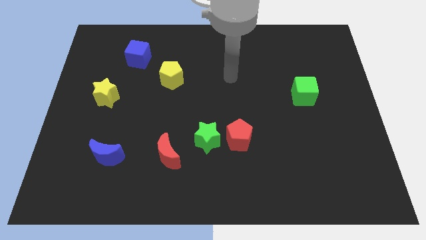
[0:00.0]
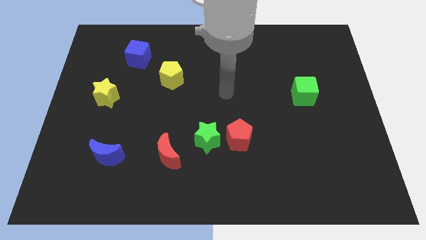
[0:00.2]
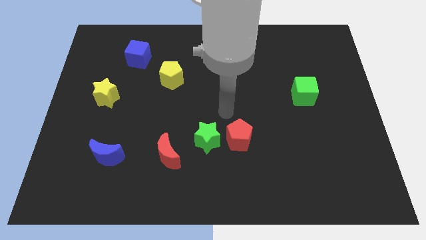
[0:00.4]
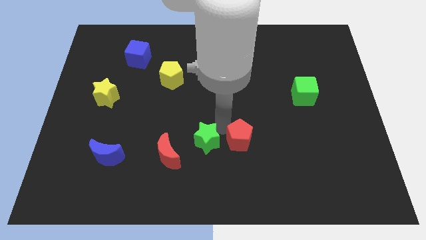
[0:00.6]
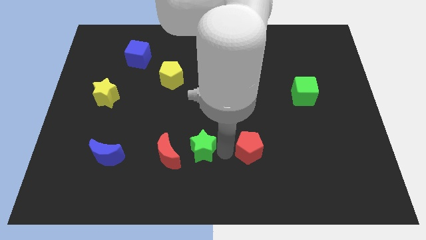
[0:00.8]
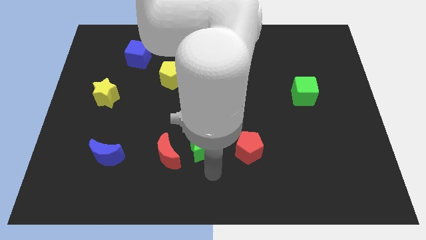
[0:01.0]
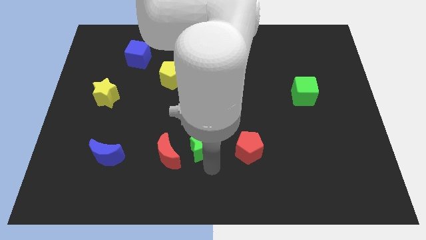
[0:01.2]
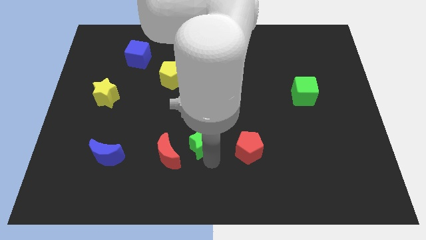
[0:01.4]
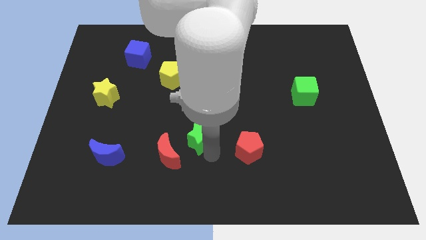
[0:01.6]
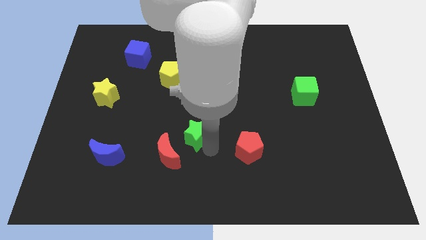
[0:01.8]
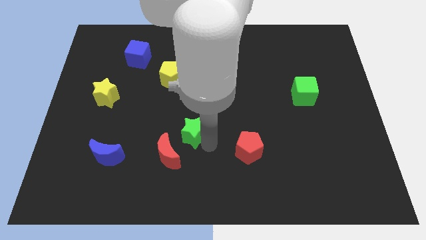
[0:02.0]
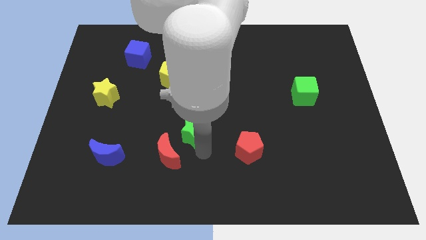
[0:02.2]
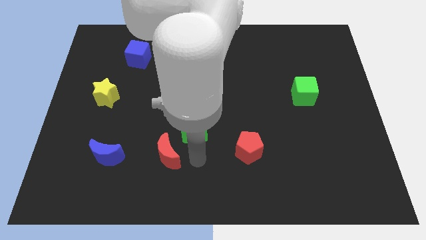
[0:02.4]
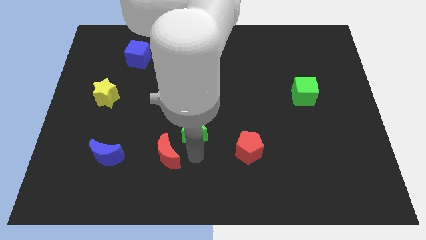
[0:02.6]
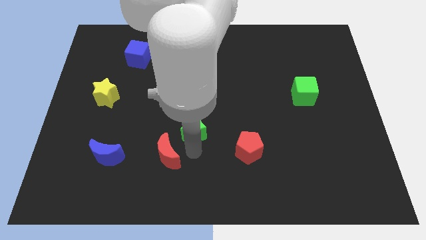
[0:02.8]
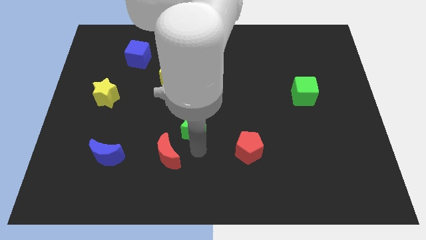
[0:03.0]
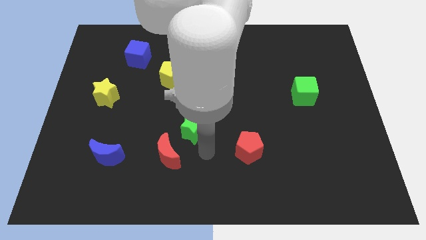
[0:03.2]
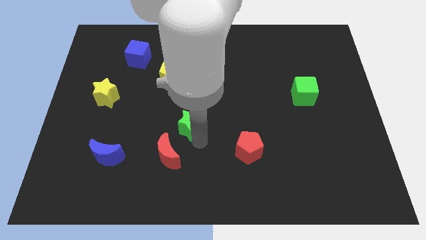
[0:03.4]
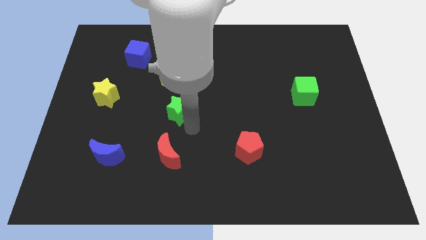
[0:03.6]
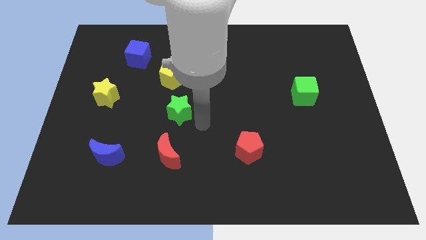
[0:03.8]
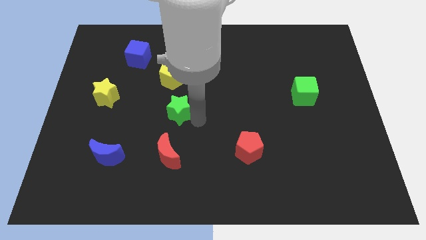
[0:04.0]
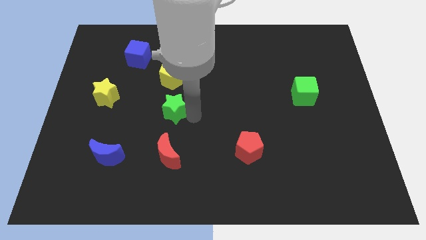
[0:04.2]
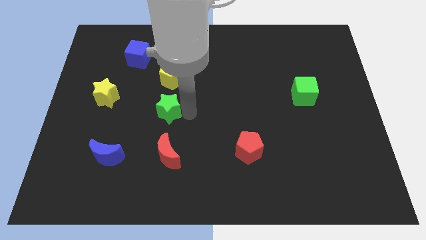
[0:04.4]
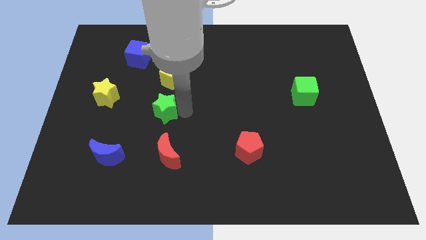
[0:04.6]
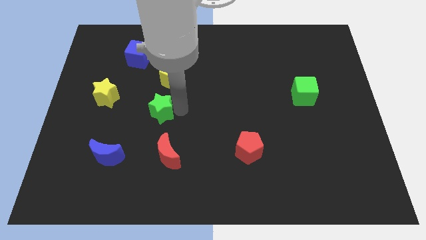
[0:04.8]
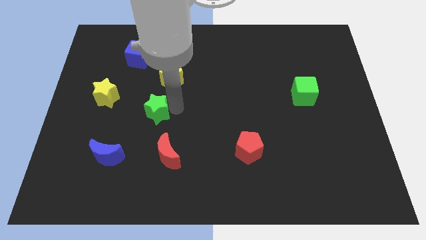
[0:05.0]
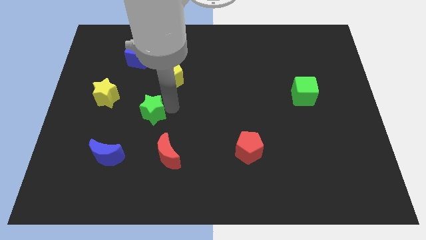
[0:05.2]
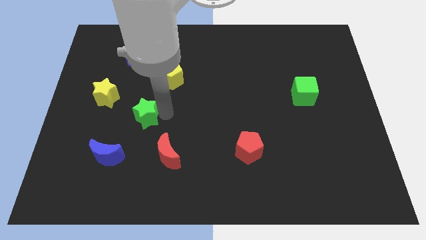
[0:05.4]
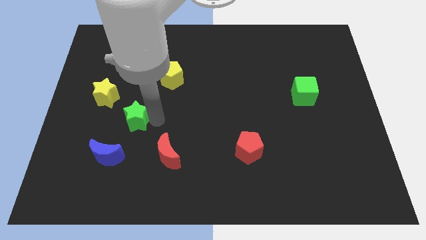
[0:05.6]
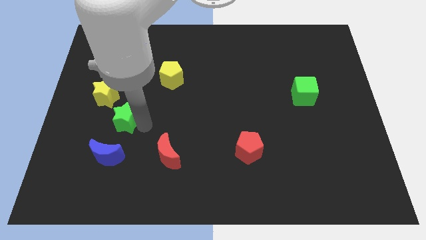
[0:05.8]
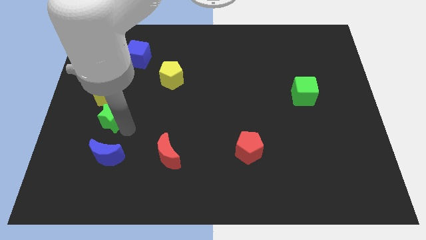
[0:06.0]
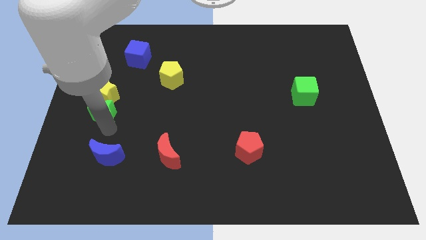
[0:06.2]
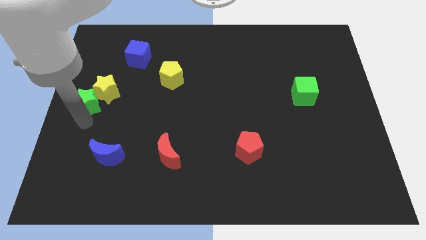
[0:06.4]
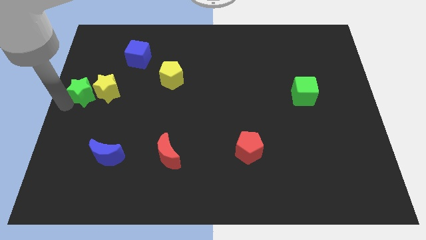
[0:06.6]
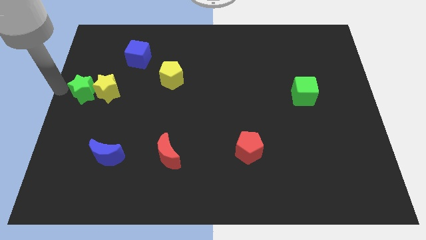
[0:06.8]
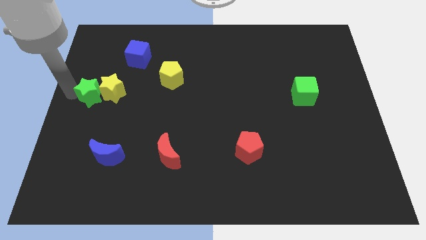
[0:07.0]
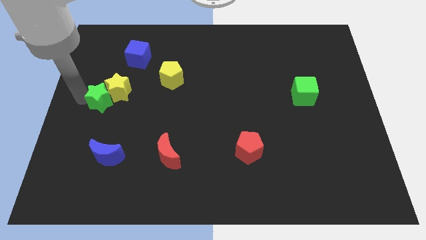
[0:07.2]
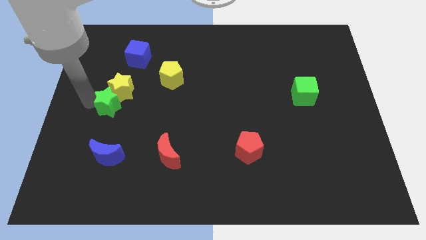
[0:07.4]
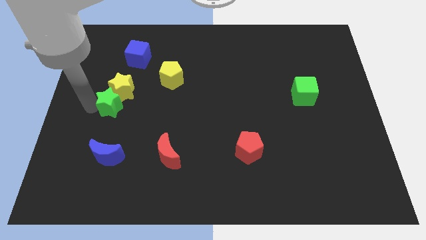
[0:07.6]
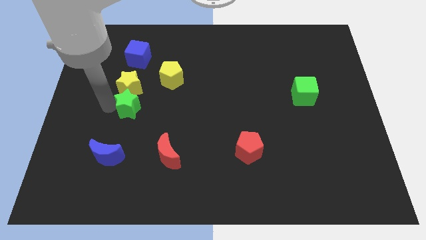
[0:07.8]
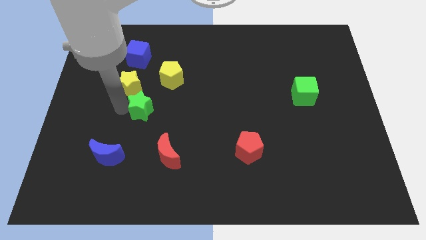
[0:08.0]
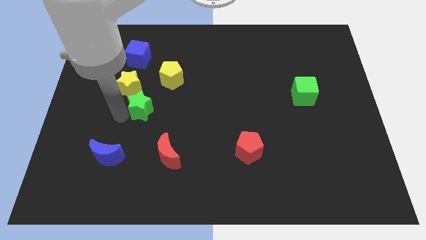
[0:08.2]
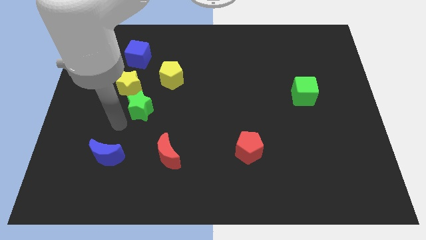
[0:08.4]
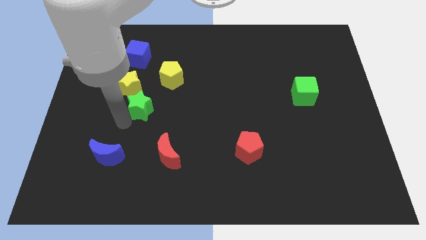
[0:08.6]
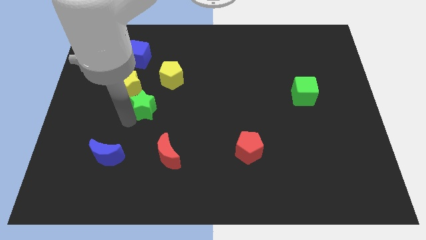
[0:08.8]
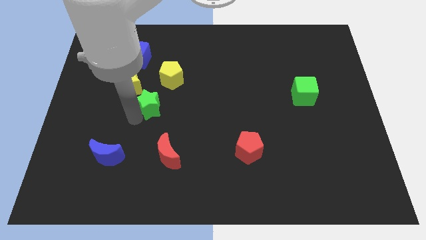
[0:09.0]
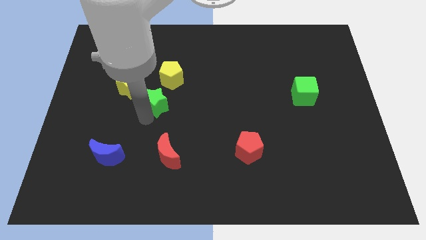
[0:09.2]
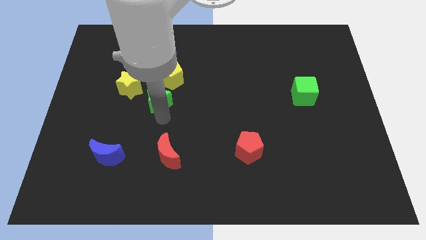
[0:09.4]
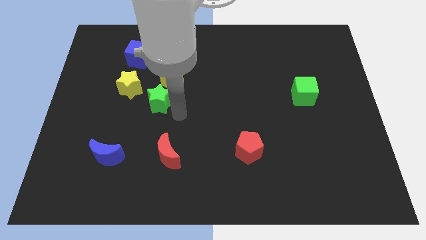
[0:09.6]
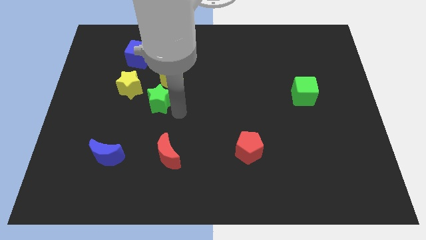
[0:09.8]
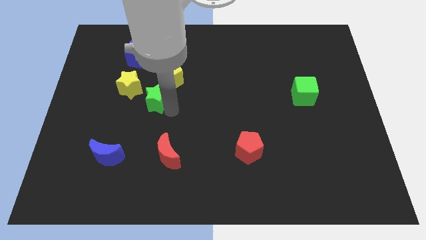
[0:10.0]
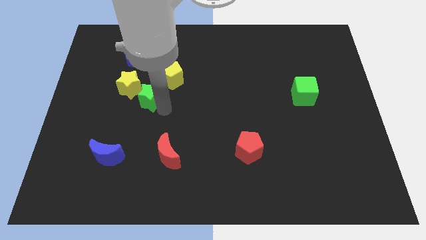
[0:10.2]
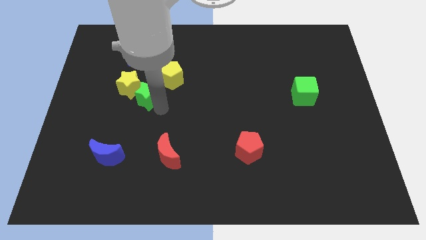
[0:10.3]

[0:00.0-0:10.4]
put the green star to the bottom side of the blue cube

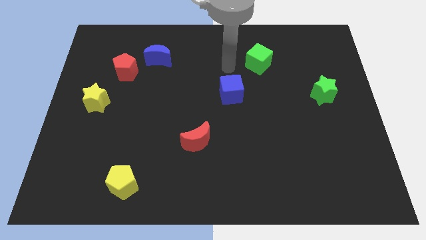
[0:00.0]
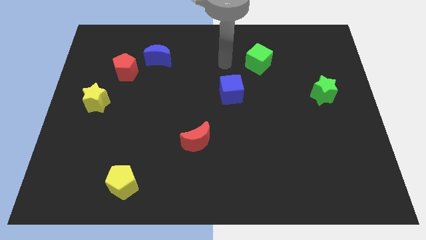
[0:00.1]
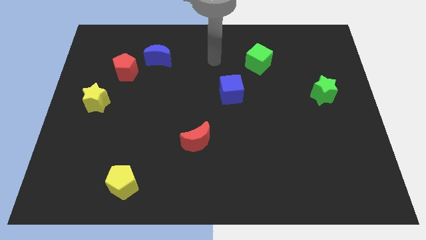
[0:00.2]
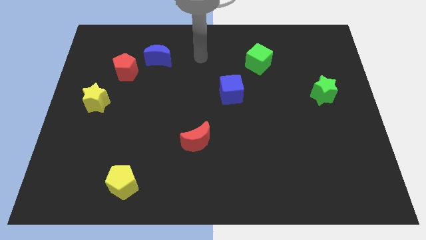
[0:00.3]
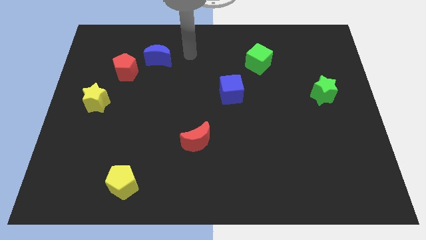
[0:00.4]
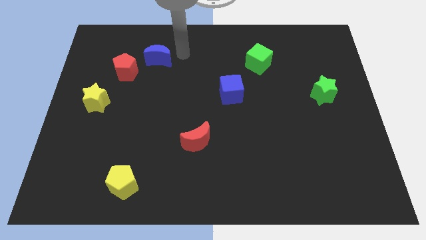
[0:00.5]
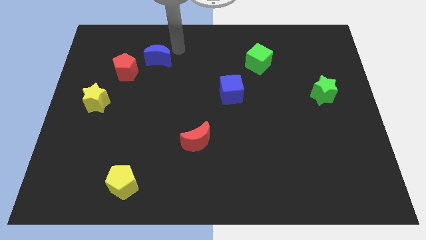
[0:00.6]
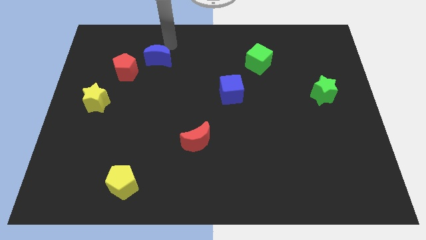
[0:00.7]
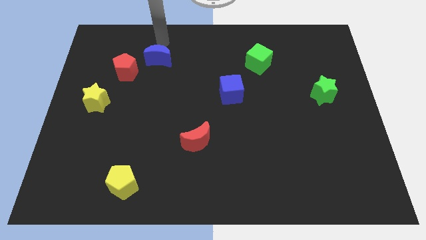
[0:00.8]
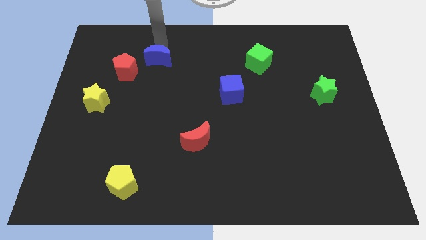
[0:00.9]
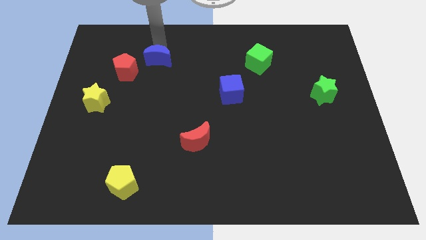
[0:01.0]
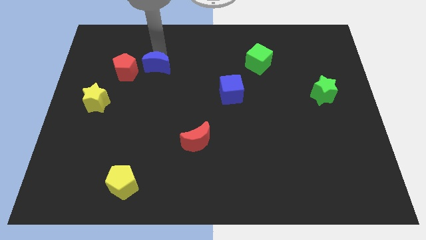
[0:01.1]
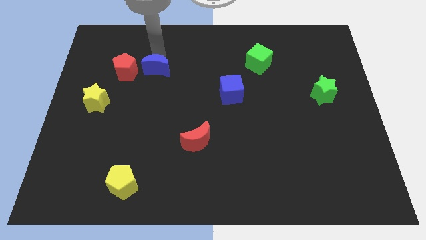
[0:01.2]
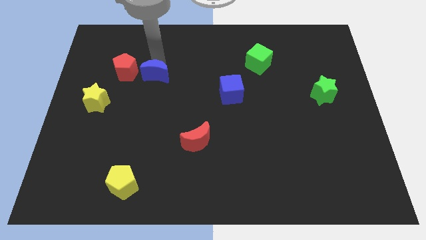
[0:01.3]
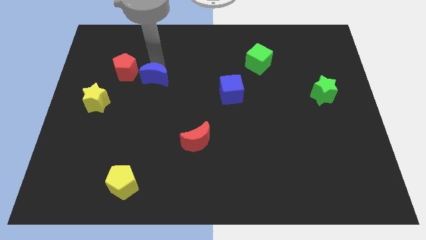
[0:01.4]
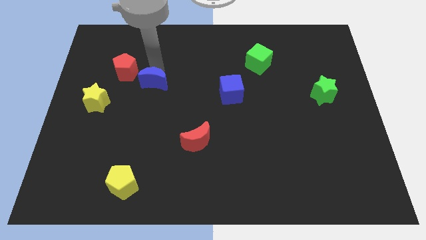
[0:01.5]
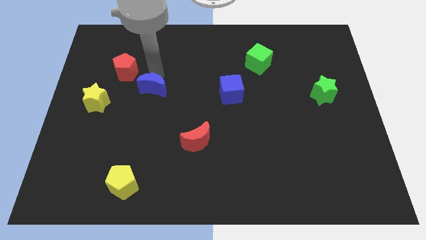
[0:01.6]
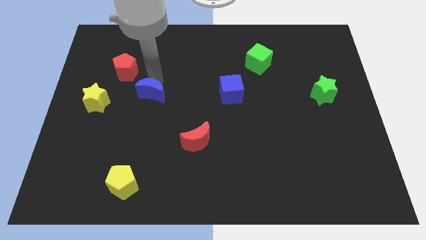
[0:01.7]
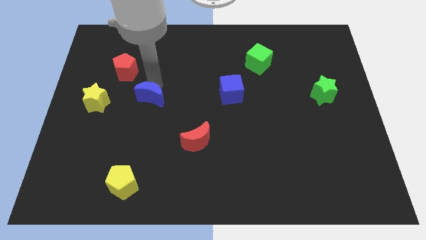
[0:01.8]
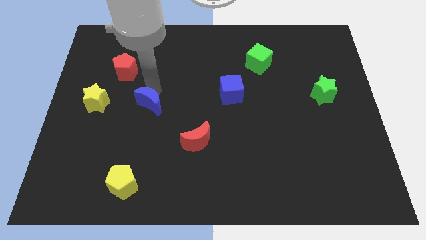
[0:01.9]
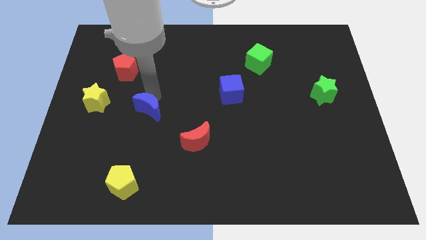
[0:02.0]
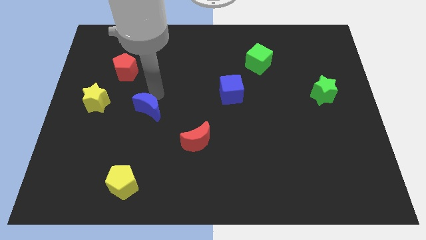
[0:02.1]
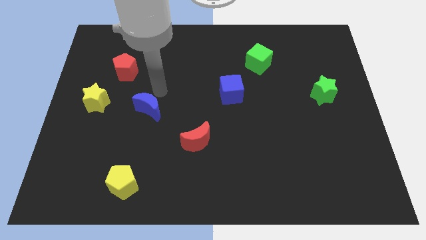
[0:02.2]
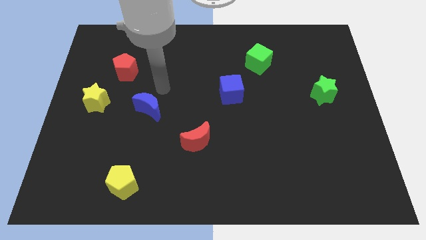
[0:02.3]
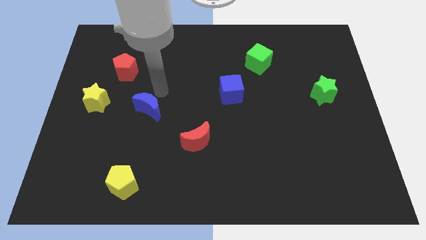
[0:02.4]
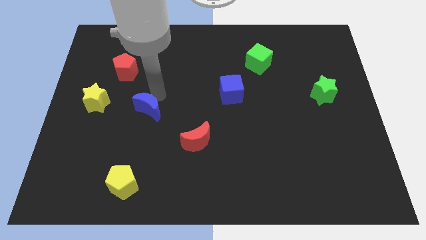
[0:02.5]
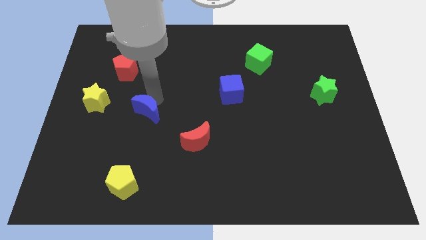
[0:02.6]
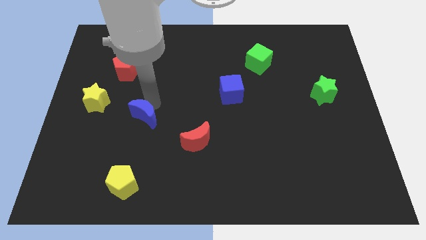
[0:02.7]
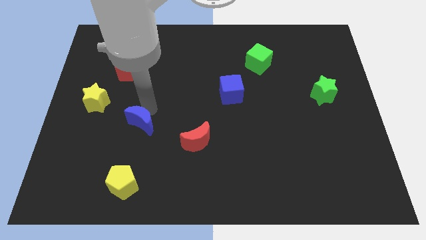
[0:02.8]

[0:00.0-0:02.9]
move the blue moon to the top of the yellow pentagon
